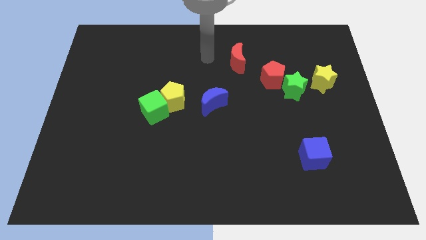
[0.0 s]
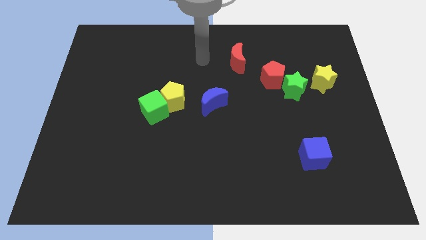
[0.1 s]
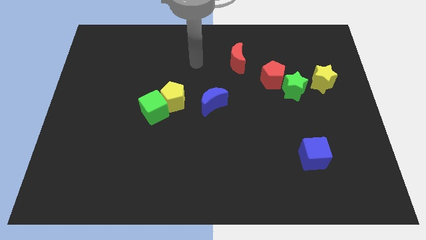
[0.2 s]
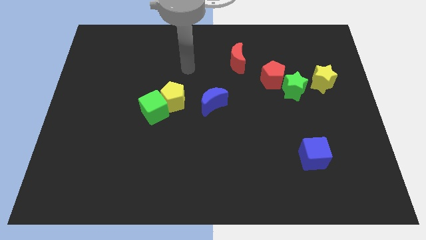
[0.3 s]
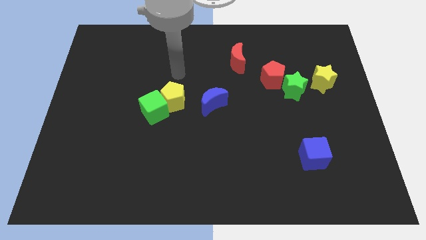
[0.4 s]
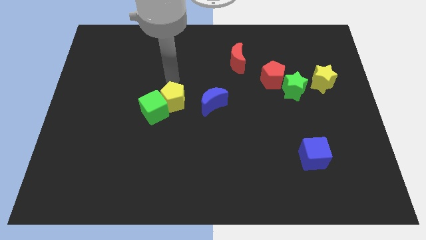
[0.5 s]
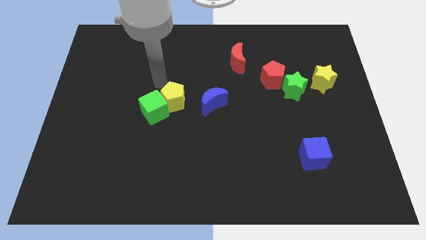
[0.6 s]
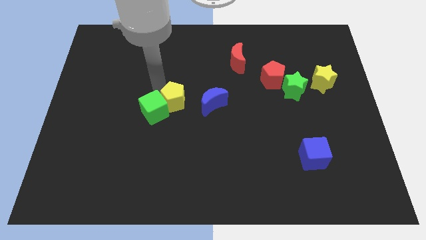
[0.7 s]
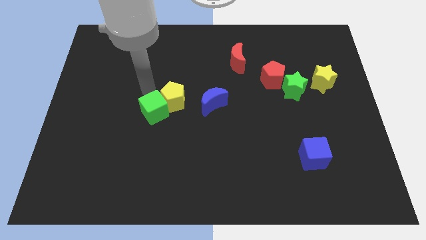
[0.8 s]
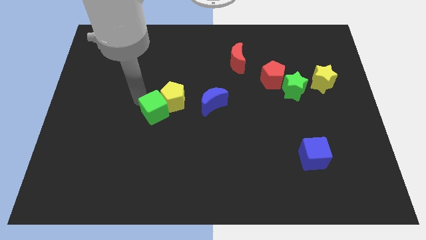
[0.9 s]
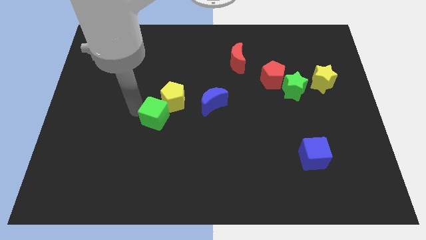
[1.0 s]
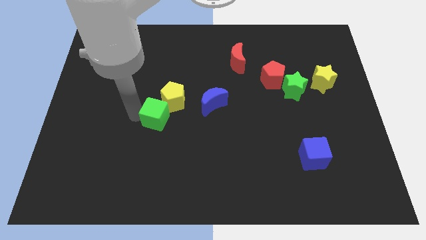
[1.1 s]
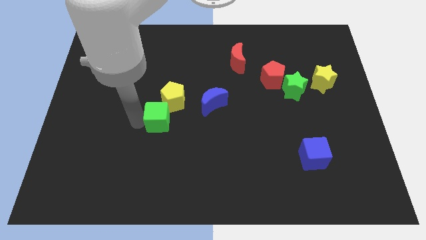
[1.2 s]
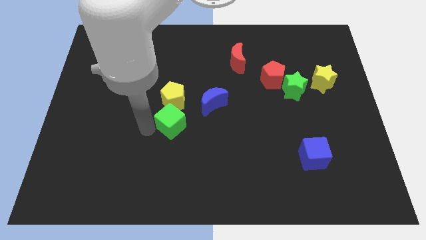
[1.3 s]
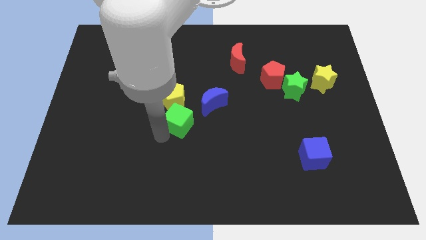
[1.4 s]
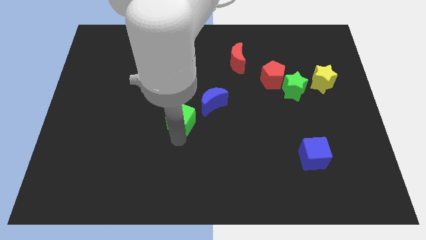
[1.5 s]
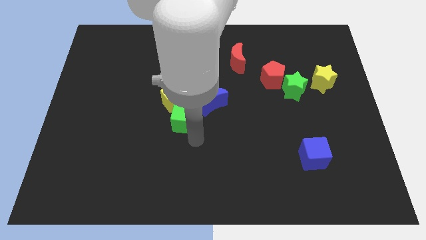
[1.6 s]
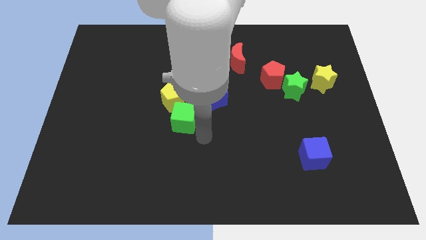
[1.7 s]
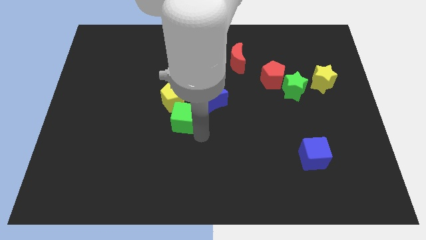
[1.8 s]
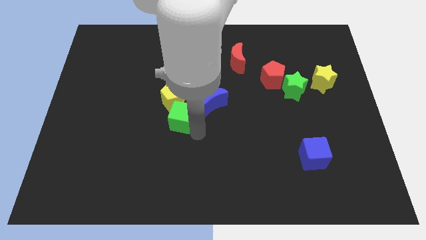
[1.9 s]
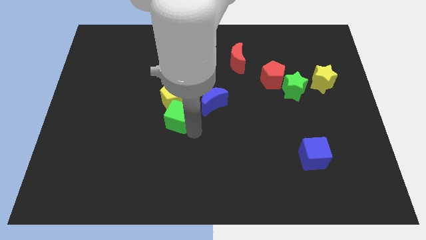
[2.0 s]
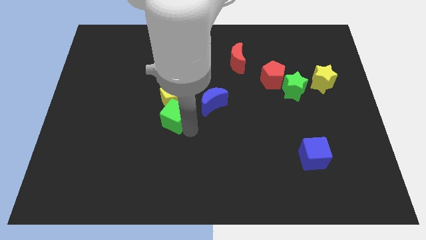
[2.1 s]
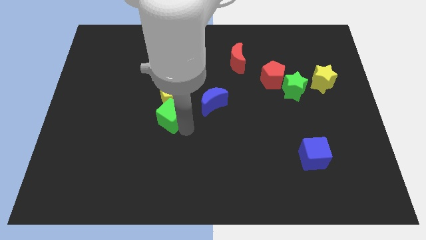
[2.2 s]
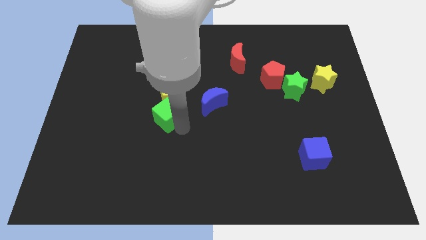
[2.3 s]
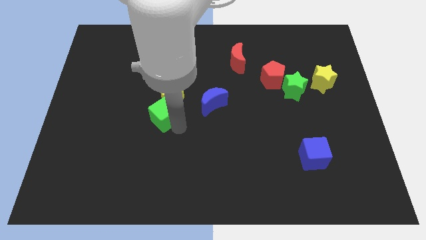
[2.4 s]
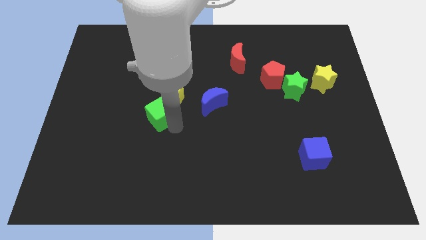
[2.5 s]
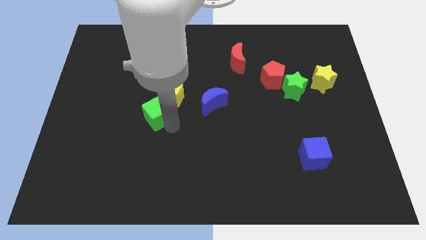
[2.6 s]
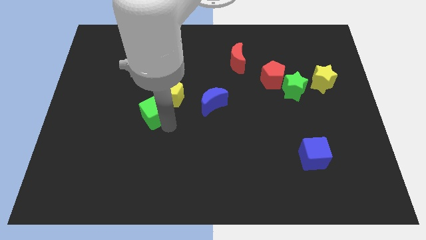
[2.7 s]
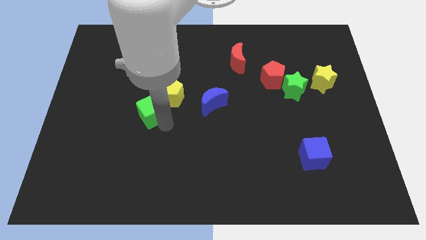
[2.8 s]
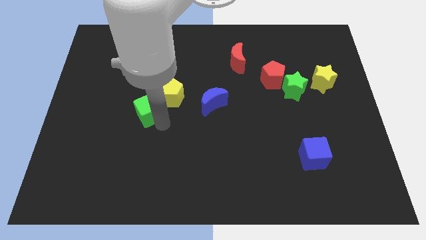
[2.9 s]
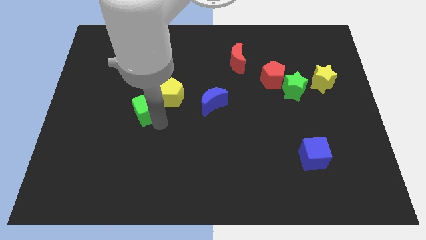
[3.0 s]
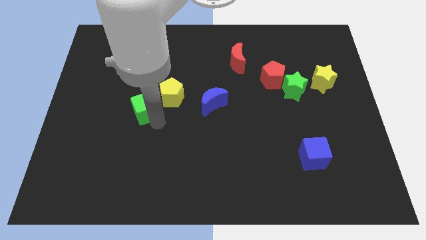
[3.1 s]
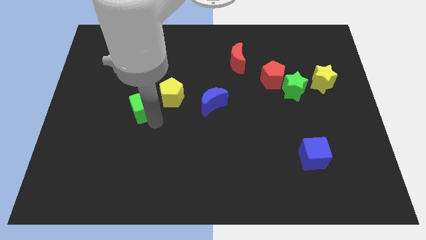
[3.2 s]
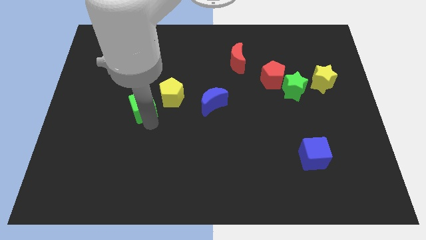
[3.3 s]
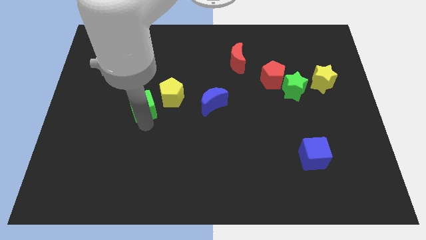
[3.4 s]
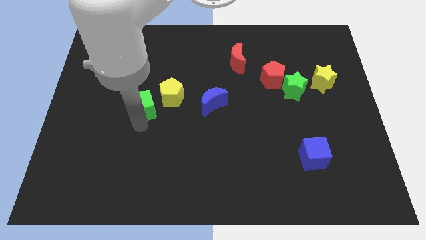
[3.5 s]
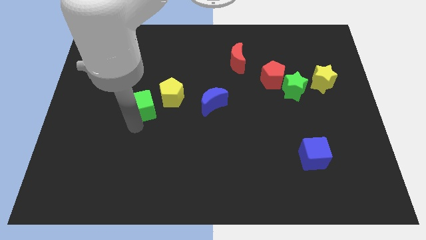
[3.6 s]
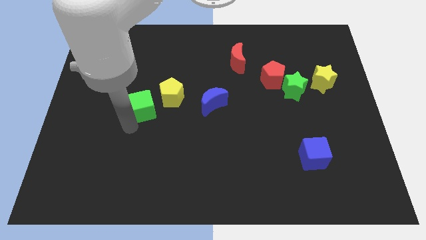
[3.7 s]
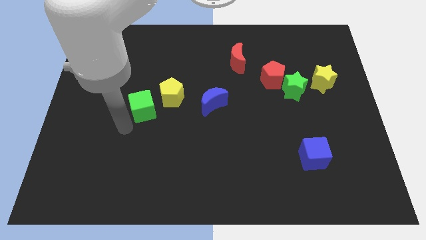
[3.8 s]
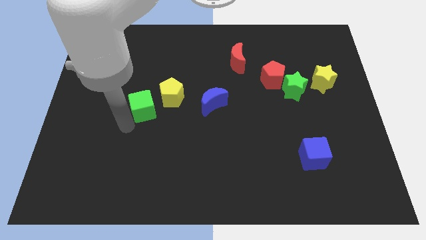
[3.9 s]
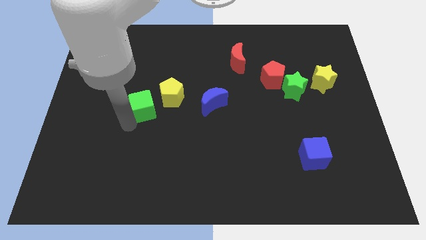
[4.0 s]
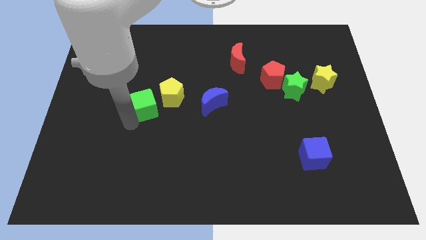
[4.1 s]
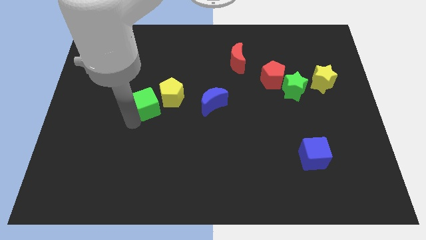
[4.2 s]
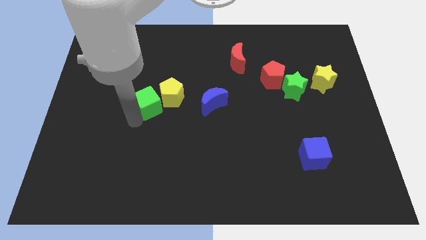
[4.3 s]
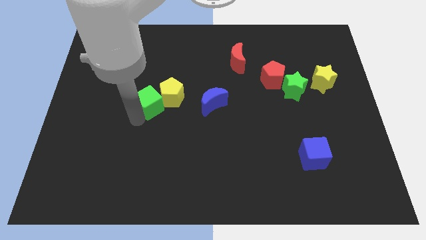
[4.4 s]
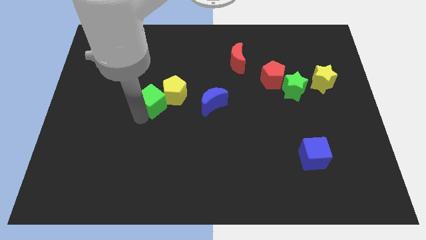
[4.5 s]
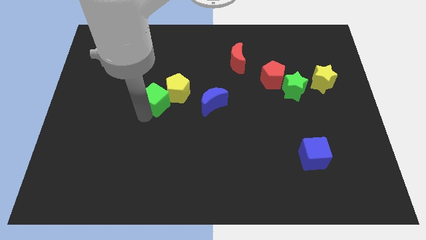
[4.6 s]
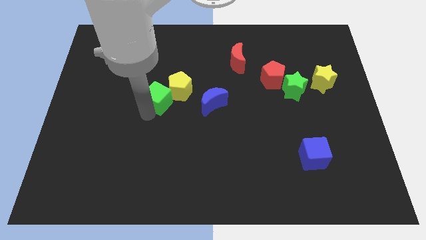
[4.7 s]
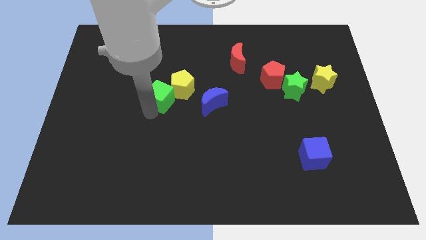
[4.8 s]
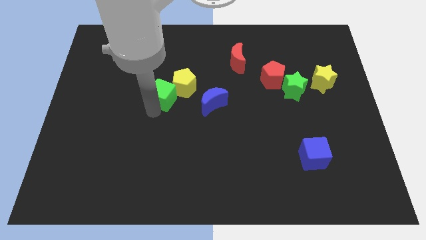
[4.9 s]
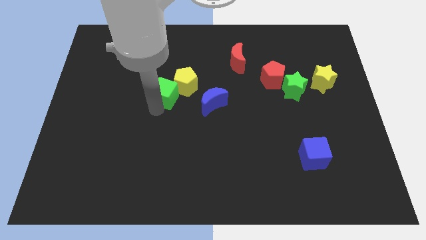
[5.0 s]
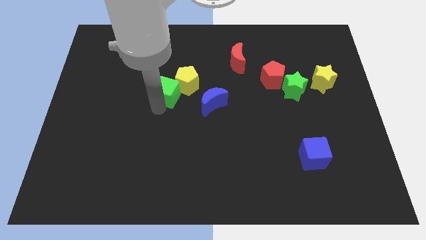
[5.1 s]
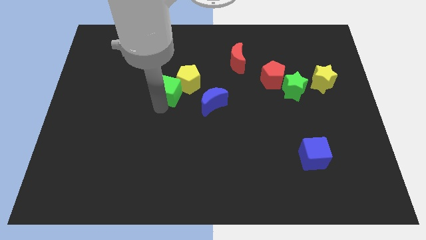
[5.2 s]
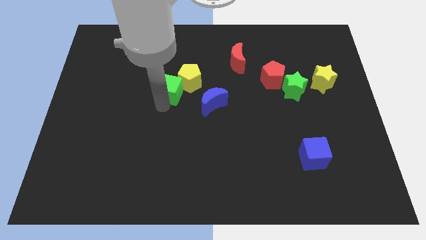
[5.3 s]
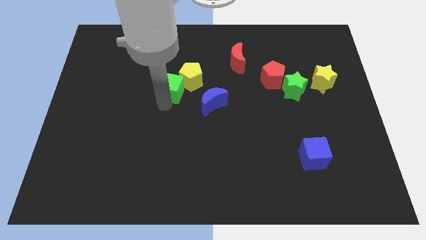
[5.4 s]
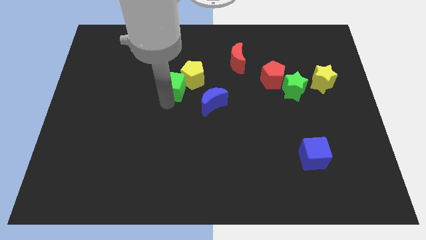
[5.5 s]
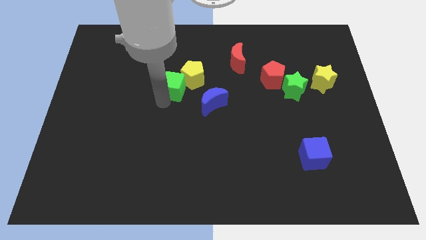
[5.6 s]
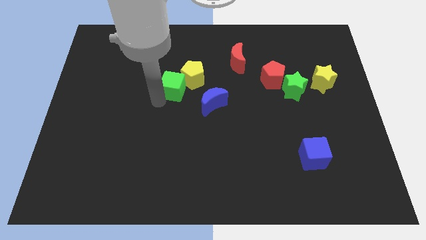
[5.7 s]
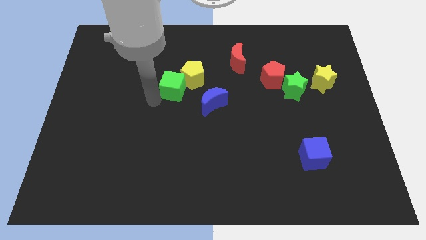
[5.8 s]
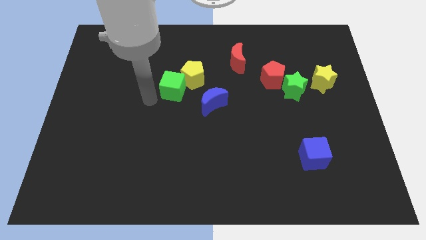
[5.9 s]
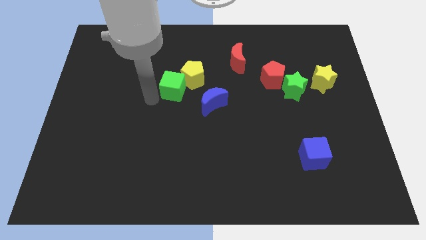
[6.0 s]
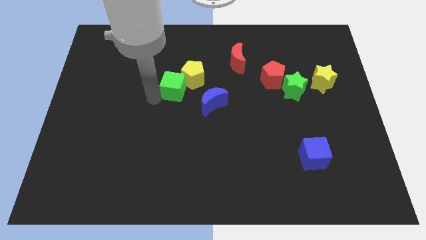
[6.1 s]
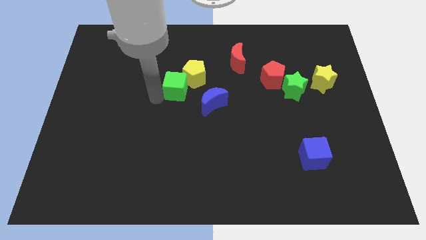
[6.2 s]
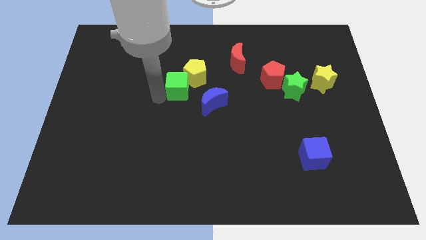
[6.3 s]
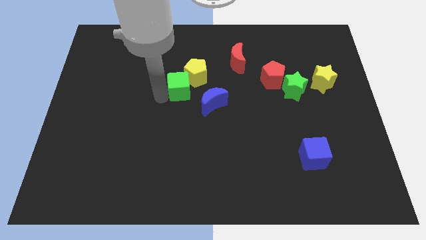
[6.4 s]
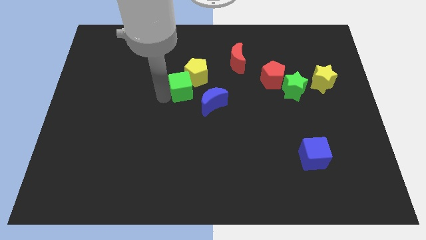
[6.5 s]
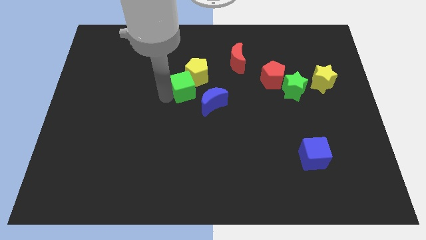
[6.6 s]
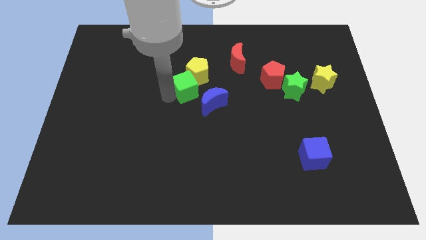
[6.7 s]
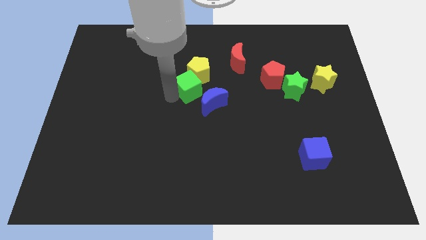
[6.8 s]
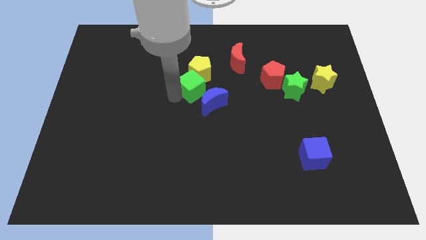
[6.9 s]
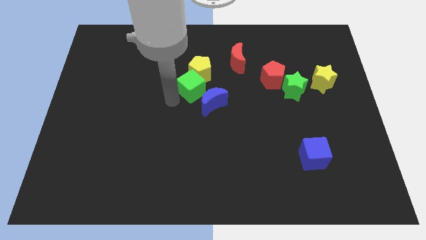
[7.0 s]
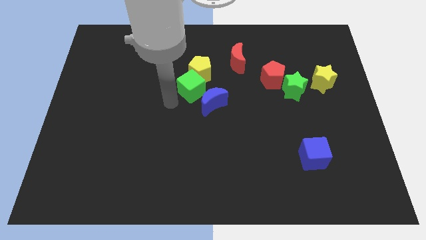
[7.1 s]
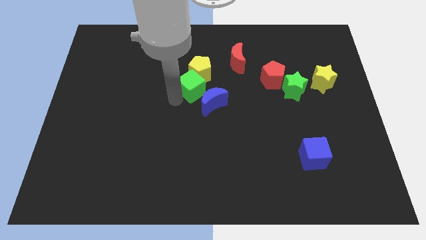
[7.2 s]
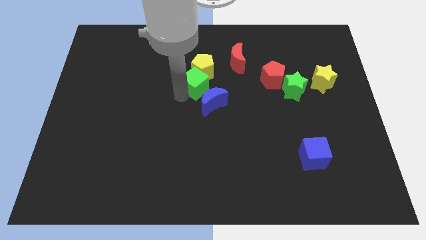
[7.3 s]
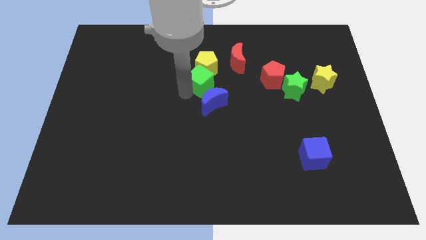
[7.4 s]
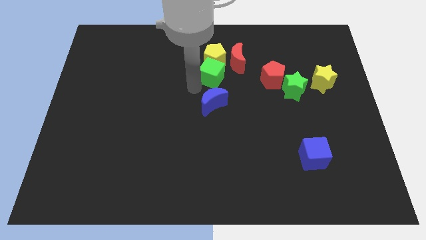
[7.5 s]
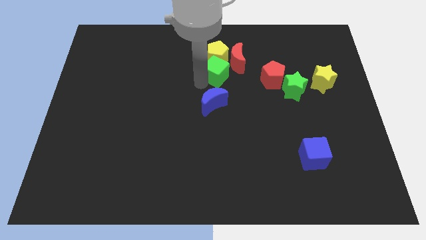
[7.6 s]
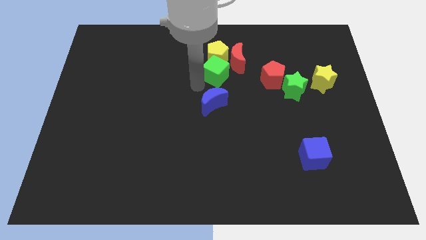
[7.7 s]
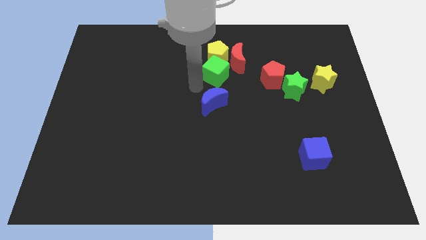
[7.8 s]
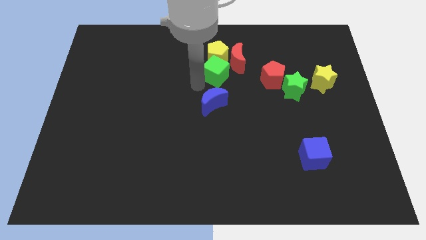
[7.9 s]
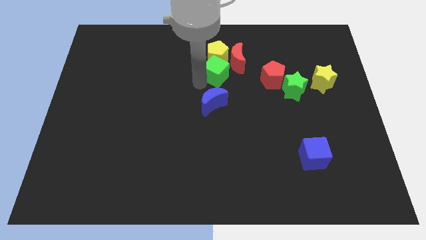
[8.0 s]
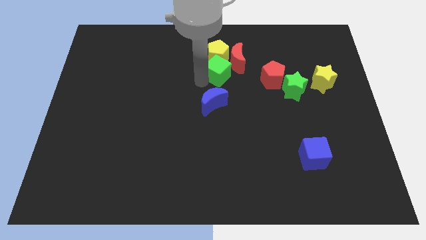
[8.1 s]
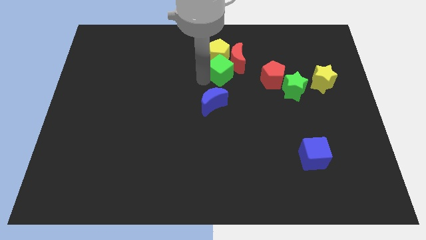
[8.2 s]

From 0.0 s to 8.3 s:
move the green cube close to the red moon
